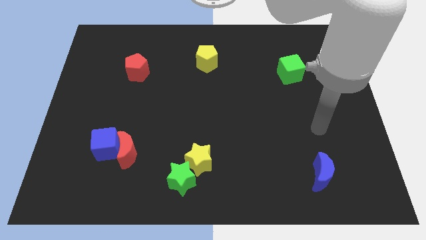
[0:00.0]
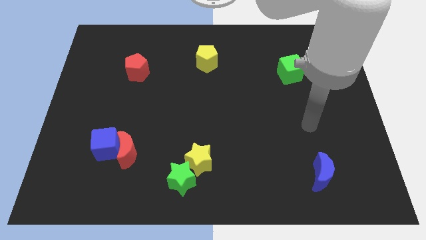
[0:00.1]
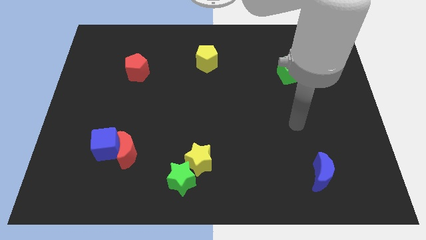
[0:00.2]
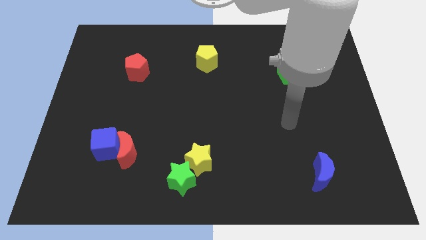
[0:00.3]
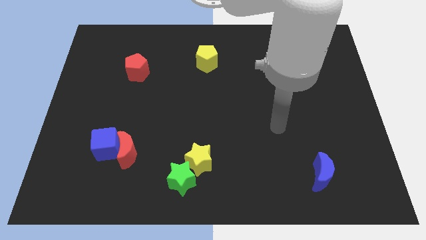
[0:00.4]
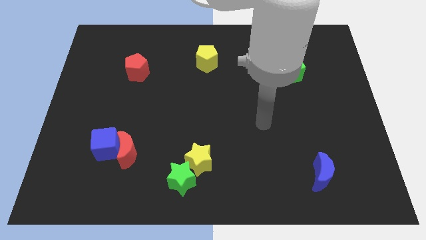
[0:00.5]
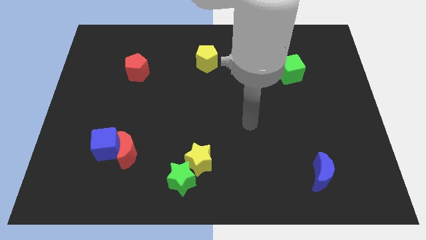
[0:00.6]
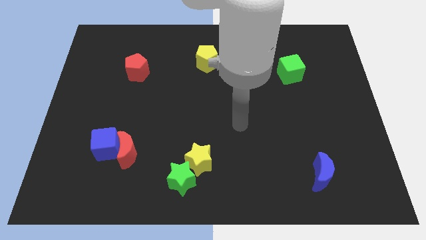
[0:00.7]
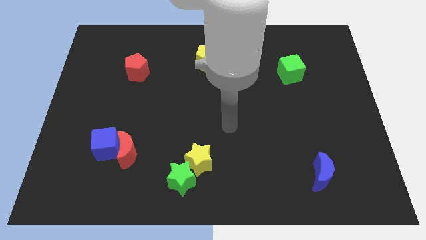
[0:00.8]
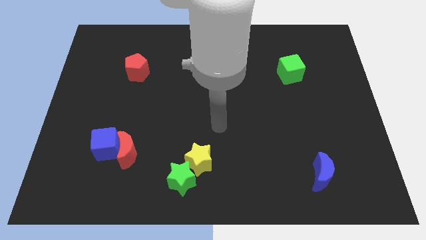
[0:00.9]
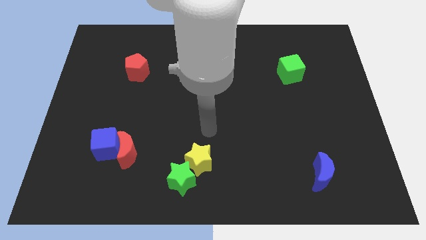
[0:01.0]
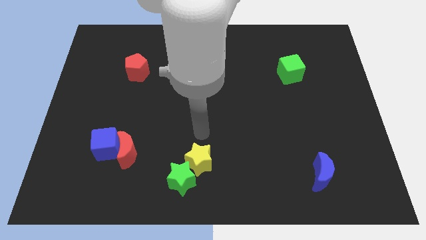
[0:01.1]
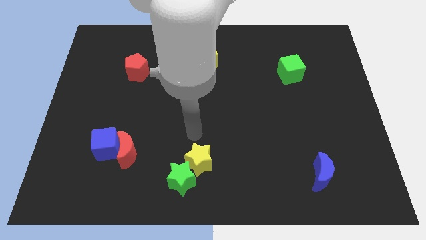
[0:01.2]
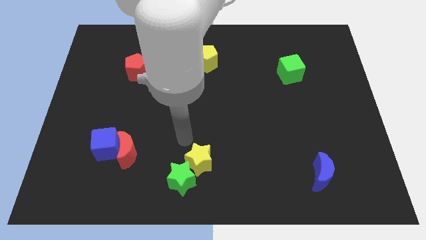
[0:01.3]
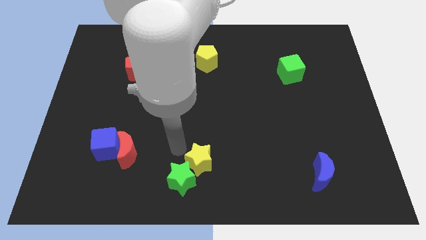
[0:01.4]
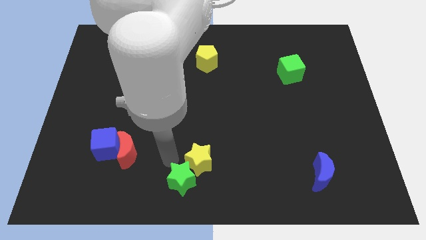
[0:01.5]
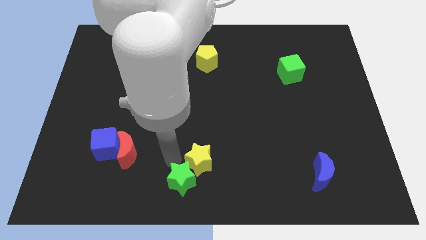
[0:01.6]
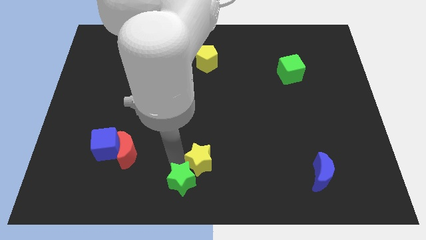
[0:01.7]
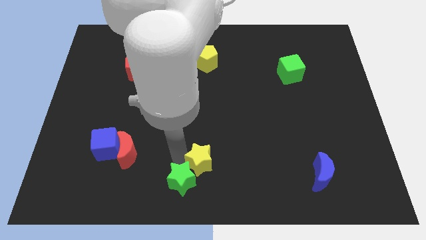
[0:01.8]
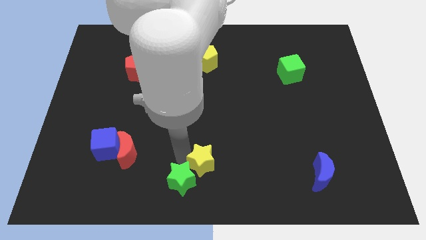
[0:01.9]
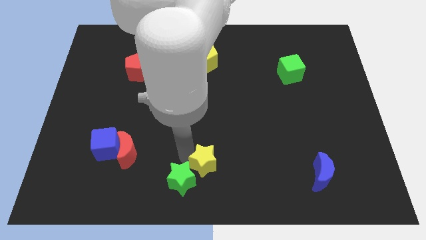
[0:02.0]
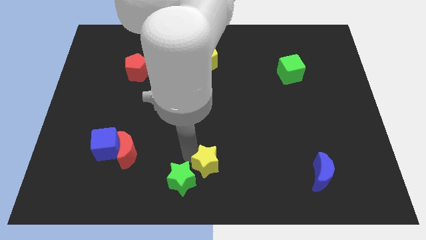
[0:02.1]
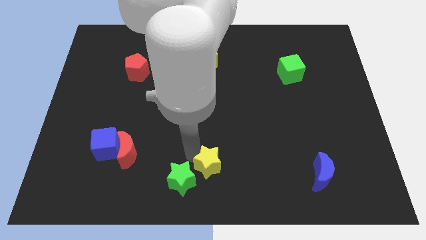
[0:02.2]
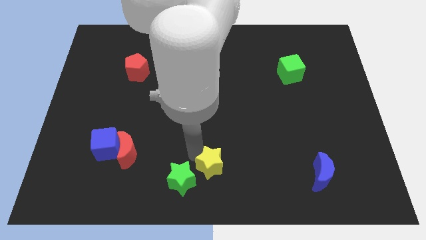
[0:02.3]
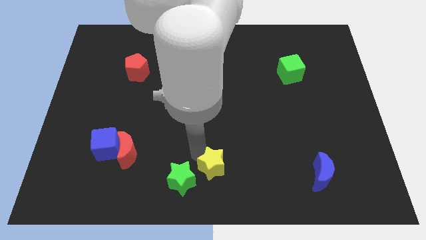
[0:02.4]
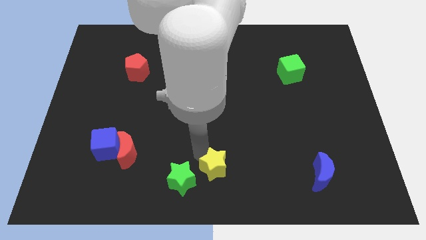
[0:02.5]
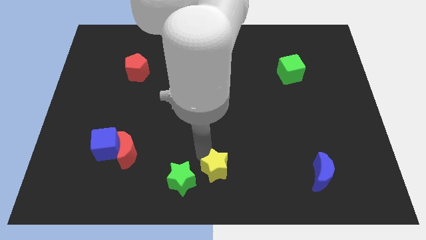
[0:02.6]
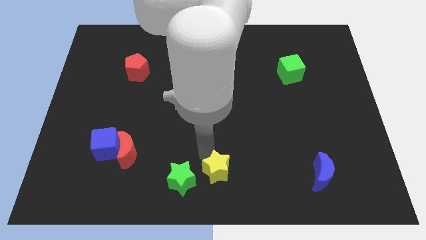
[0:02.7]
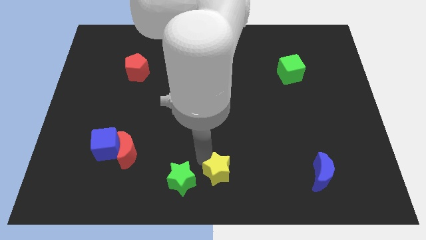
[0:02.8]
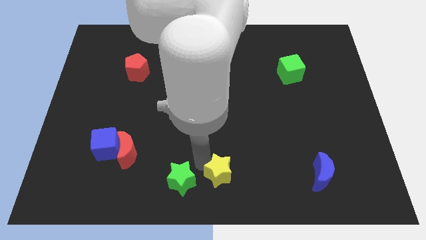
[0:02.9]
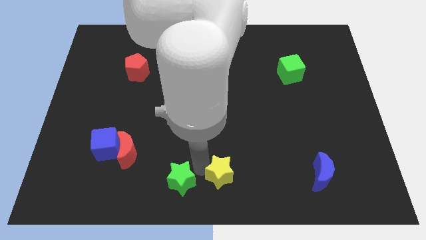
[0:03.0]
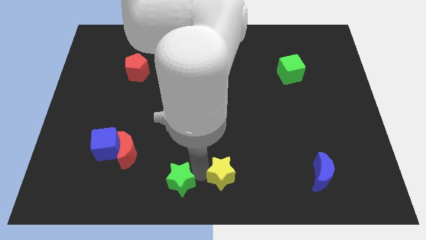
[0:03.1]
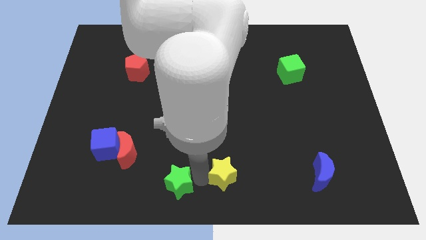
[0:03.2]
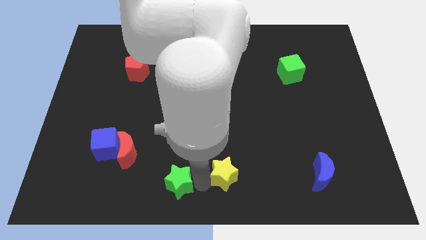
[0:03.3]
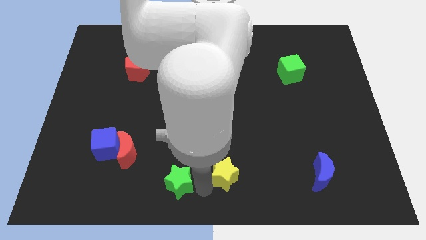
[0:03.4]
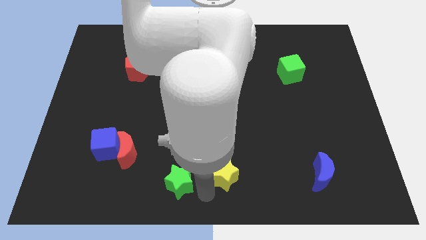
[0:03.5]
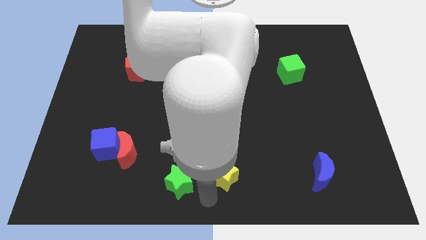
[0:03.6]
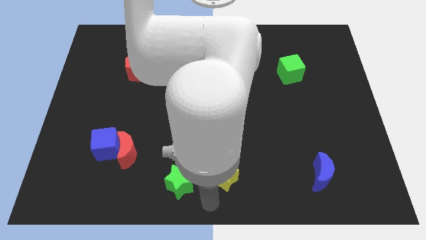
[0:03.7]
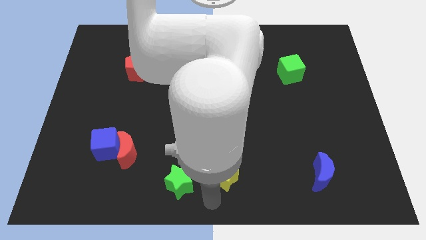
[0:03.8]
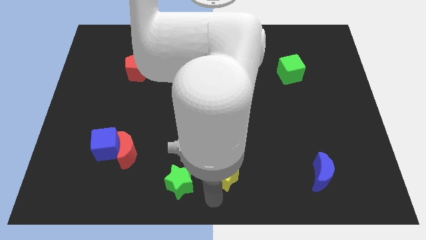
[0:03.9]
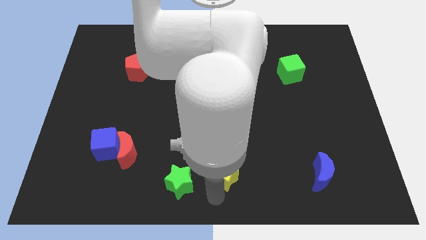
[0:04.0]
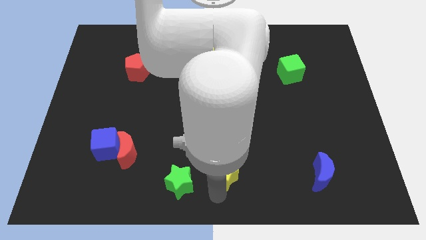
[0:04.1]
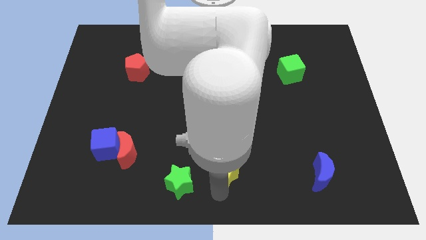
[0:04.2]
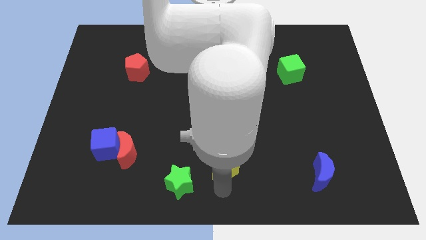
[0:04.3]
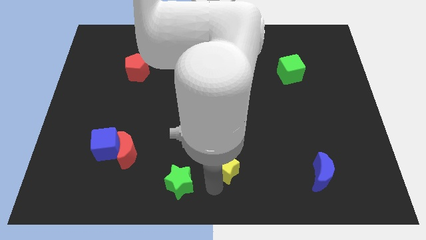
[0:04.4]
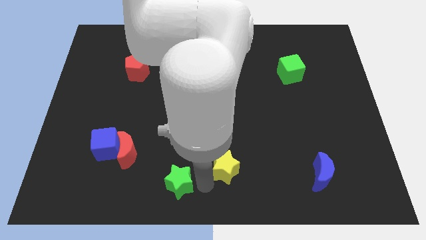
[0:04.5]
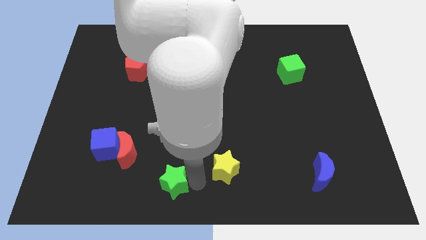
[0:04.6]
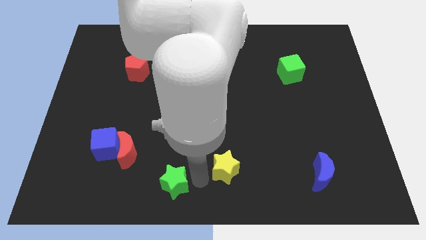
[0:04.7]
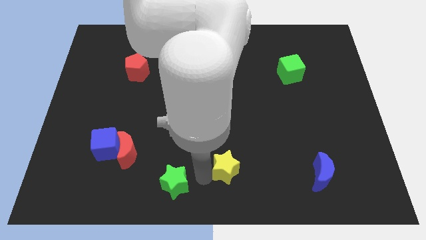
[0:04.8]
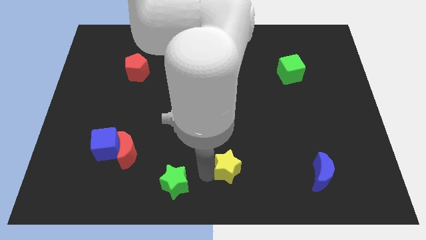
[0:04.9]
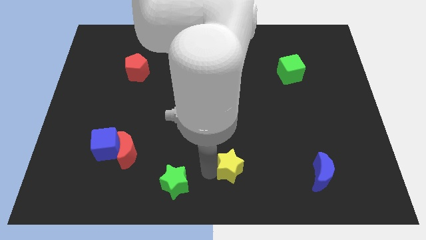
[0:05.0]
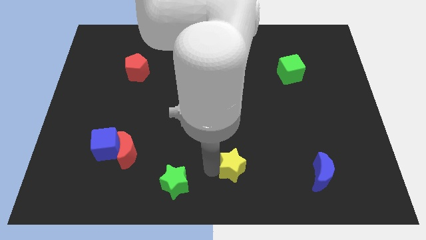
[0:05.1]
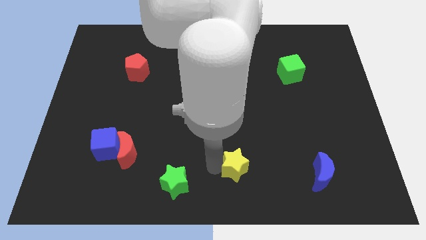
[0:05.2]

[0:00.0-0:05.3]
slide the yellow star right a bit

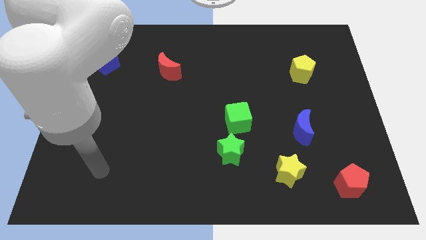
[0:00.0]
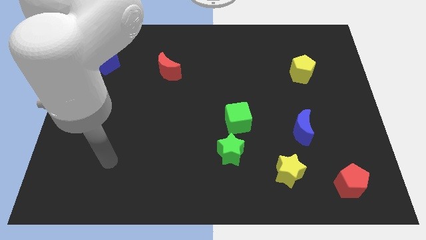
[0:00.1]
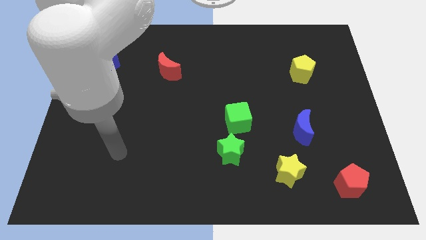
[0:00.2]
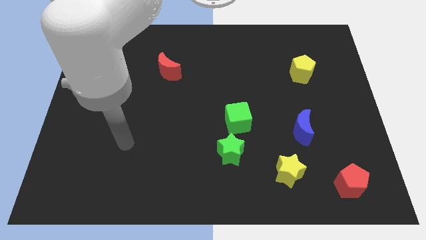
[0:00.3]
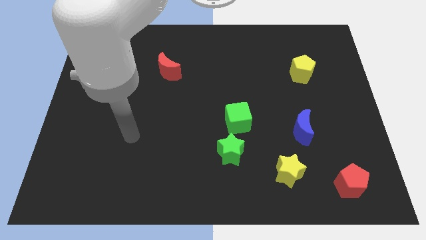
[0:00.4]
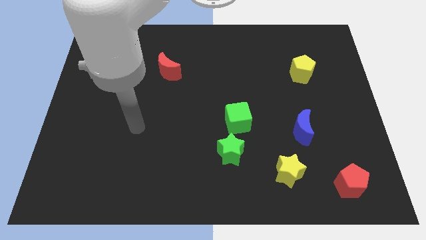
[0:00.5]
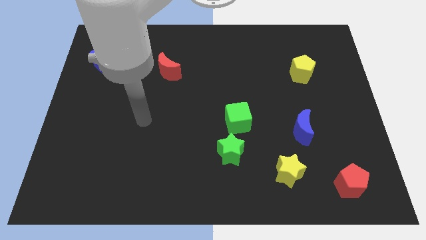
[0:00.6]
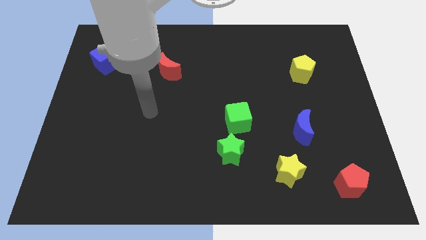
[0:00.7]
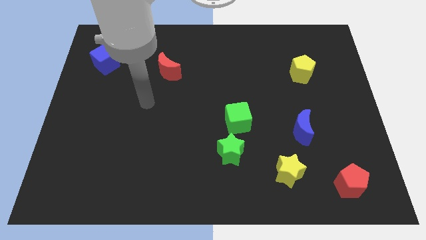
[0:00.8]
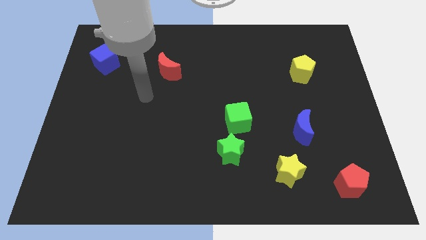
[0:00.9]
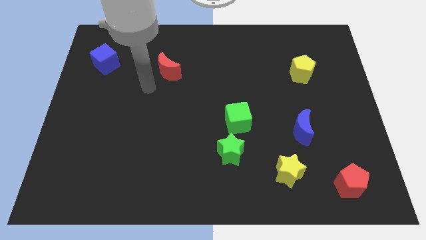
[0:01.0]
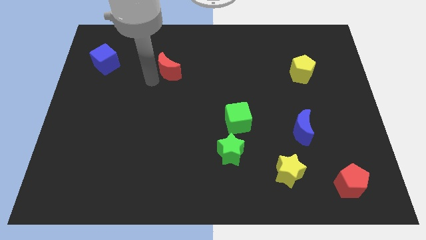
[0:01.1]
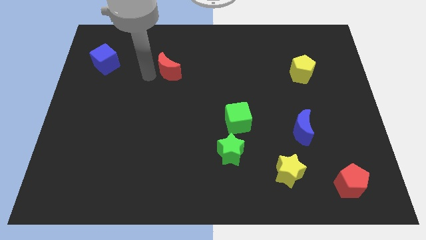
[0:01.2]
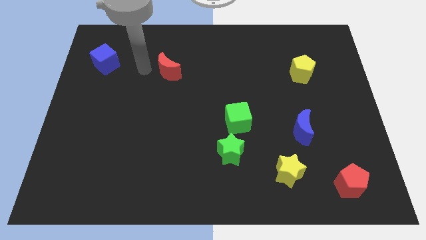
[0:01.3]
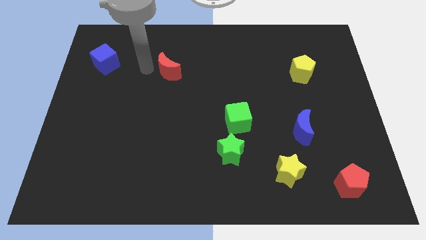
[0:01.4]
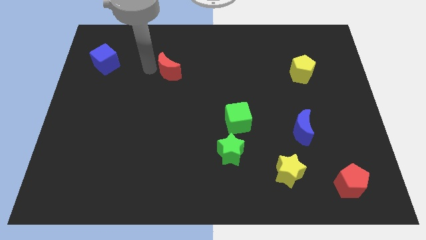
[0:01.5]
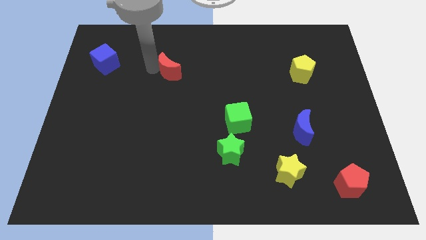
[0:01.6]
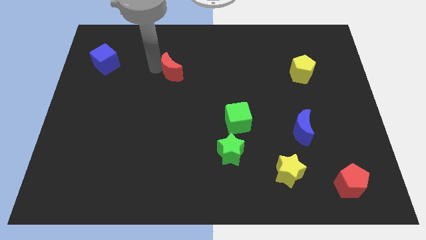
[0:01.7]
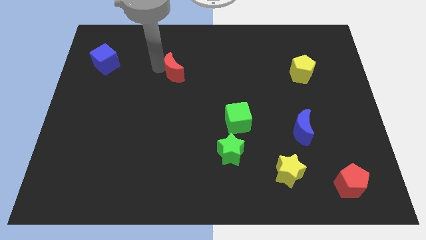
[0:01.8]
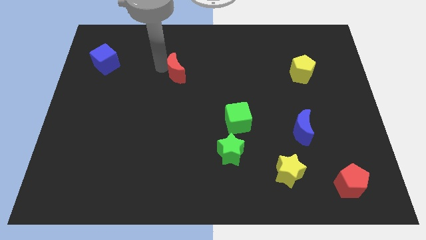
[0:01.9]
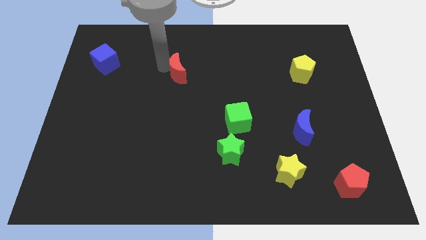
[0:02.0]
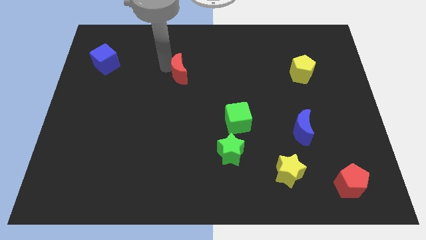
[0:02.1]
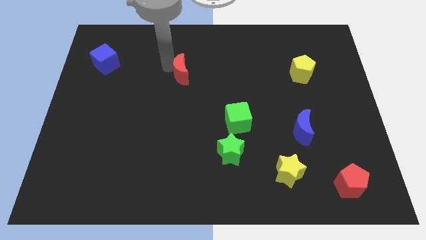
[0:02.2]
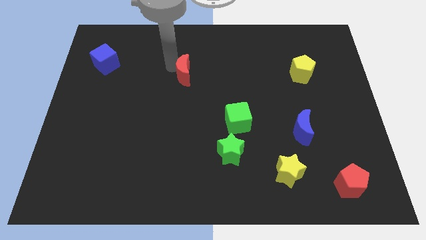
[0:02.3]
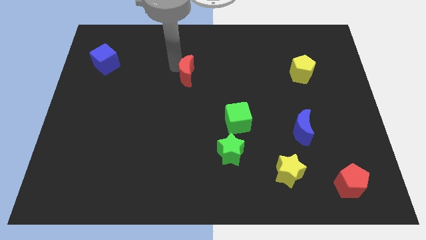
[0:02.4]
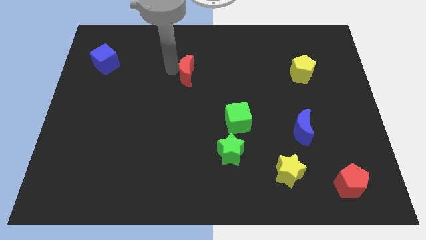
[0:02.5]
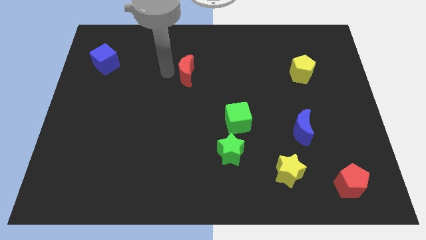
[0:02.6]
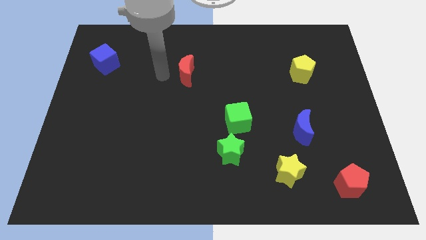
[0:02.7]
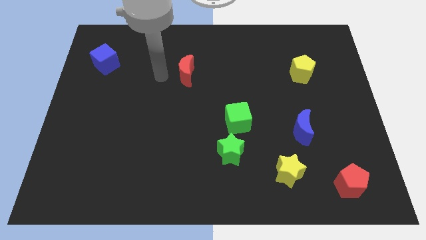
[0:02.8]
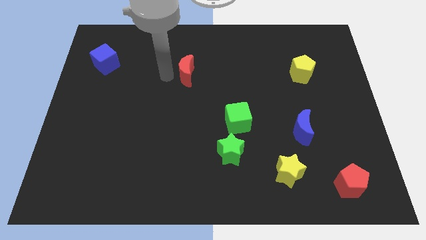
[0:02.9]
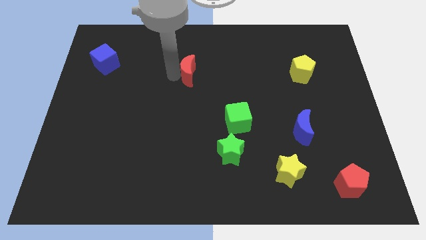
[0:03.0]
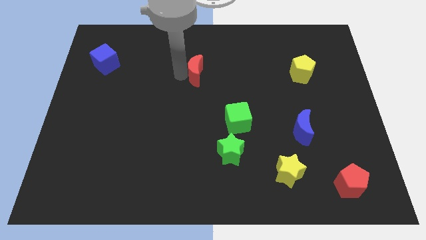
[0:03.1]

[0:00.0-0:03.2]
slide the red moon right slightly
